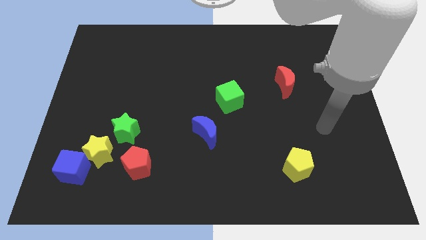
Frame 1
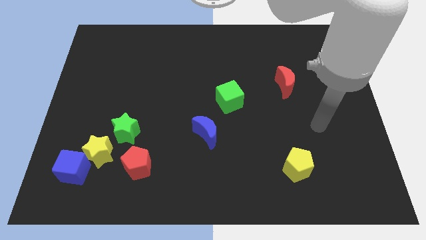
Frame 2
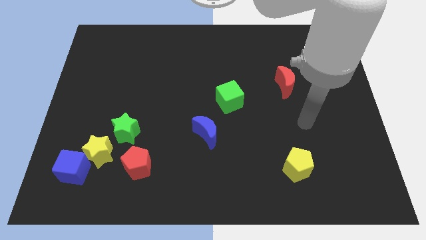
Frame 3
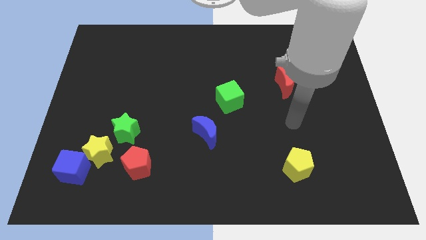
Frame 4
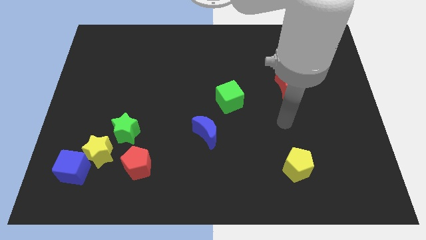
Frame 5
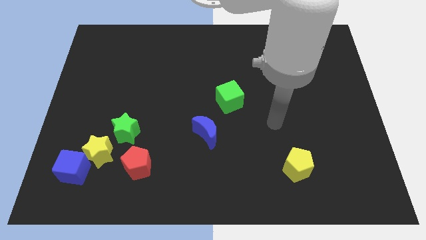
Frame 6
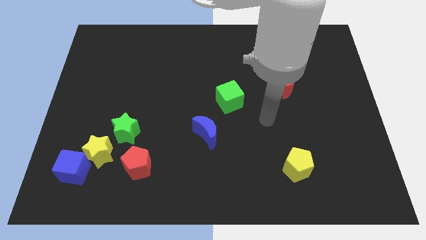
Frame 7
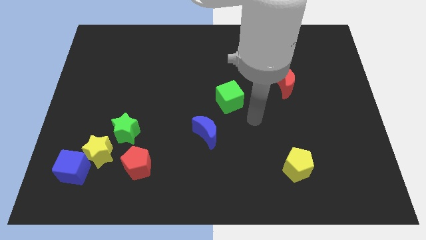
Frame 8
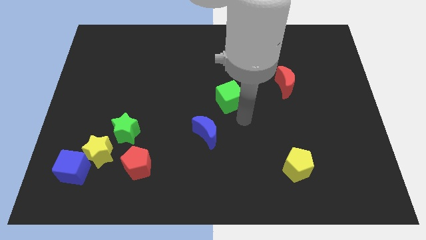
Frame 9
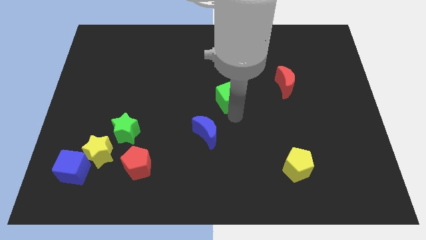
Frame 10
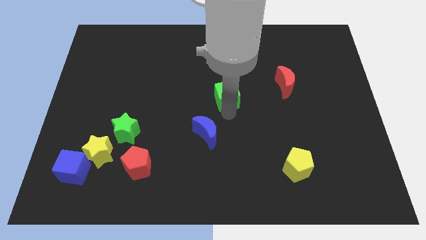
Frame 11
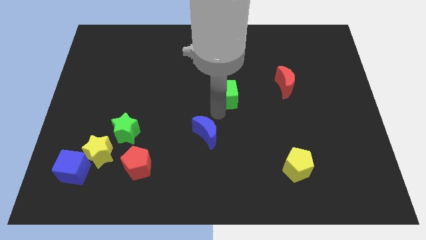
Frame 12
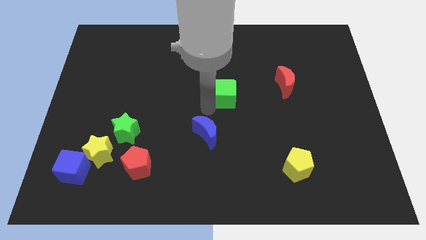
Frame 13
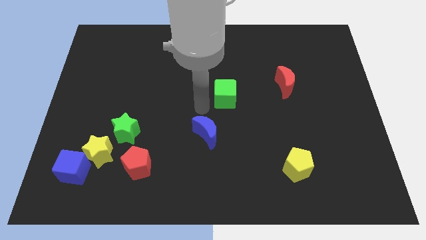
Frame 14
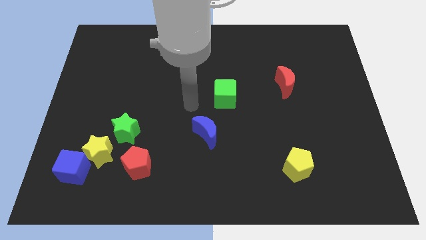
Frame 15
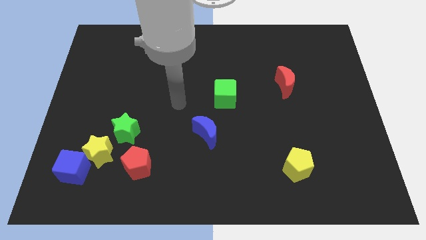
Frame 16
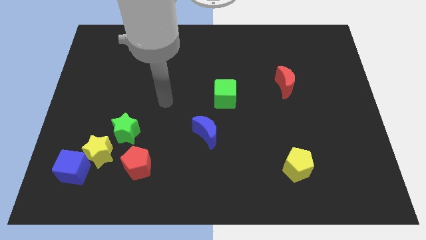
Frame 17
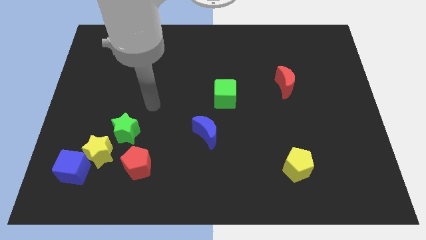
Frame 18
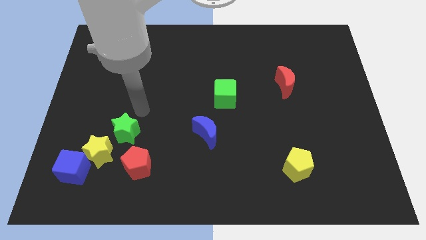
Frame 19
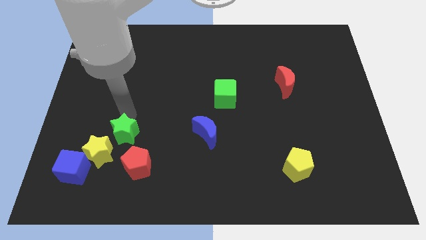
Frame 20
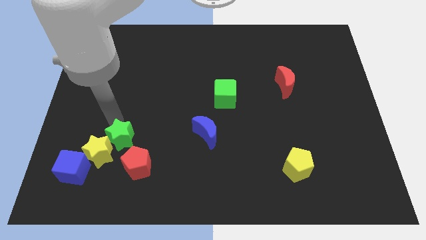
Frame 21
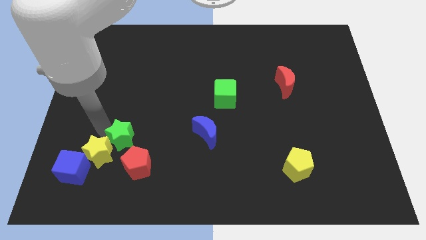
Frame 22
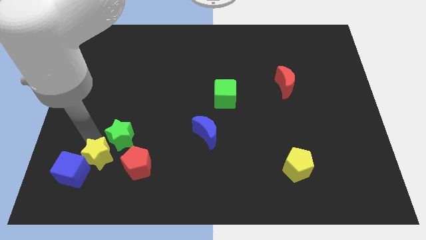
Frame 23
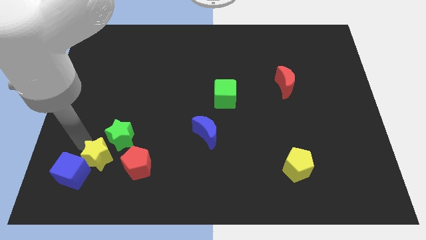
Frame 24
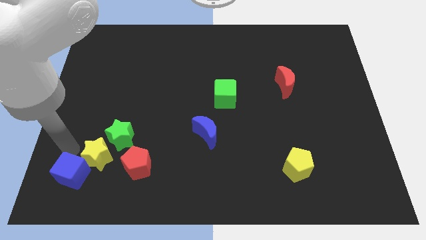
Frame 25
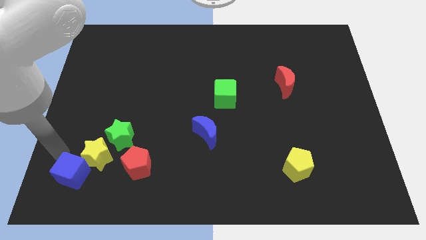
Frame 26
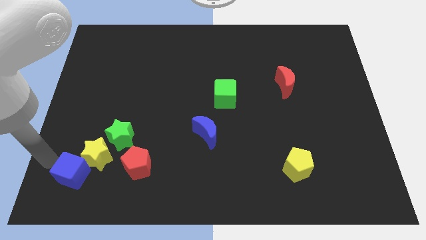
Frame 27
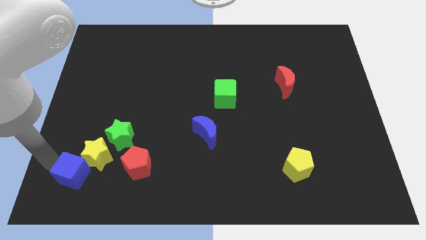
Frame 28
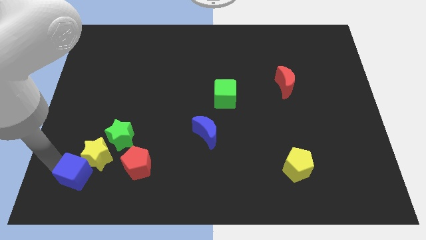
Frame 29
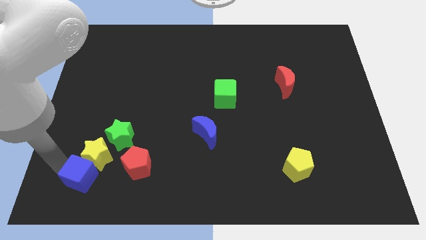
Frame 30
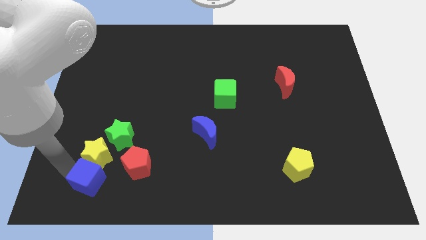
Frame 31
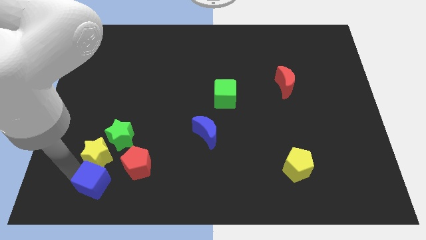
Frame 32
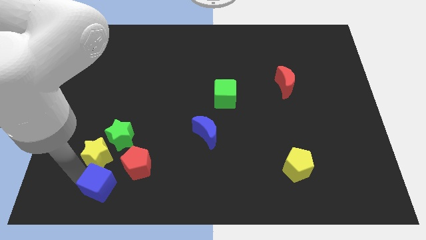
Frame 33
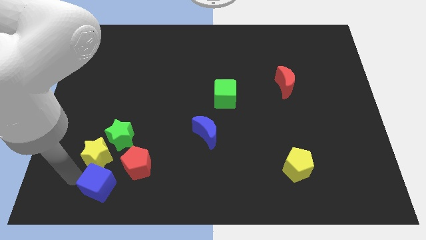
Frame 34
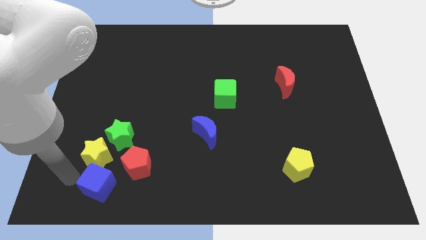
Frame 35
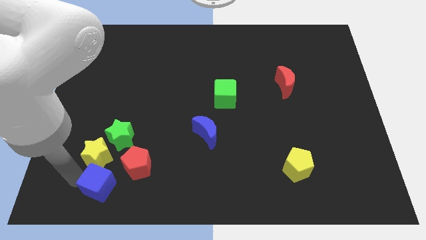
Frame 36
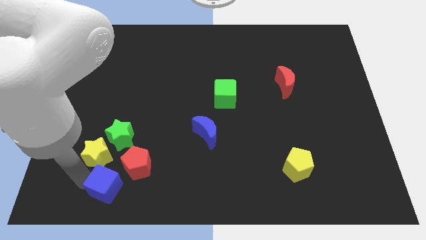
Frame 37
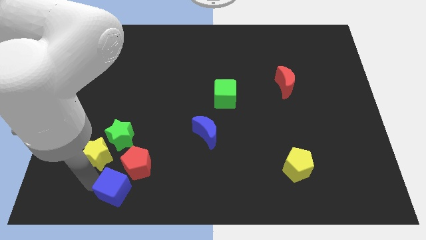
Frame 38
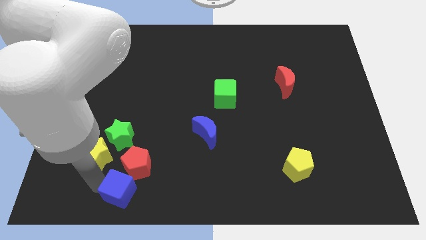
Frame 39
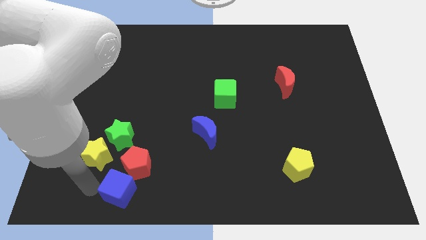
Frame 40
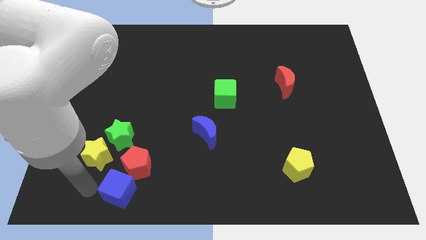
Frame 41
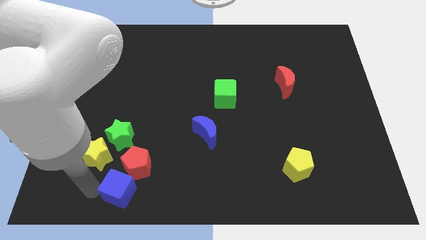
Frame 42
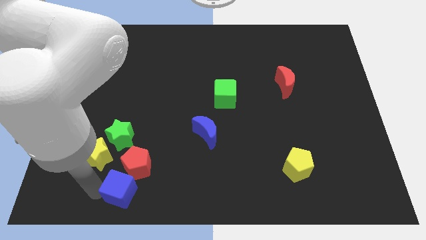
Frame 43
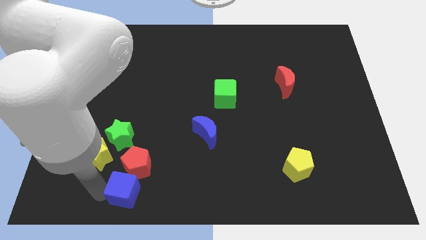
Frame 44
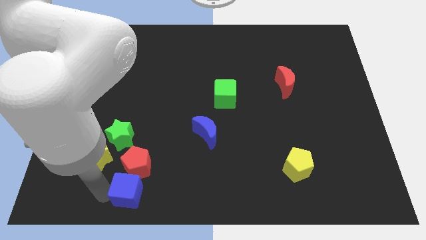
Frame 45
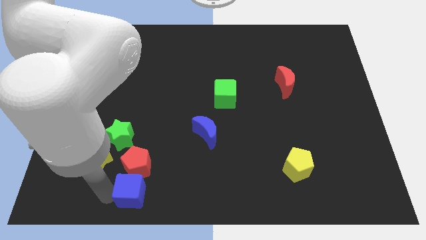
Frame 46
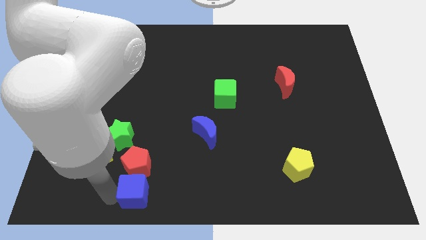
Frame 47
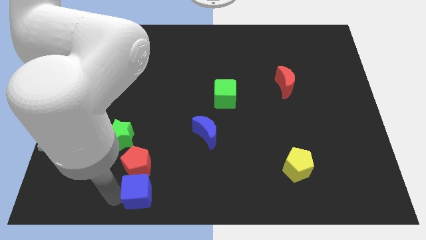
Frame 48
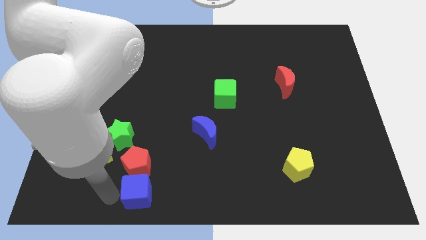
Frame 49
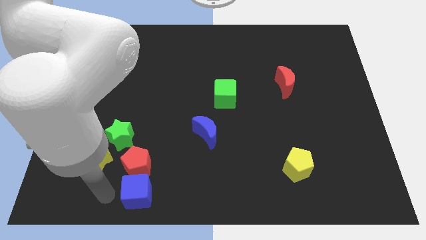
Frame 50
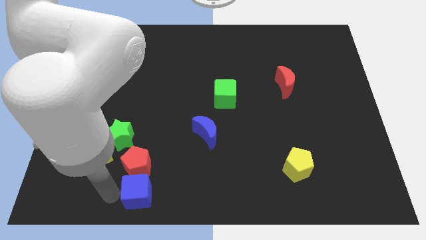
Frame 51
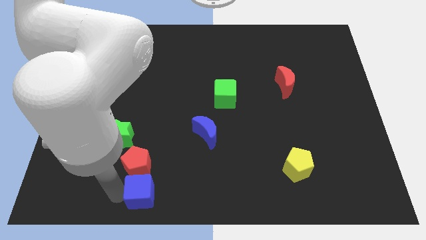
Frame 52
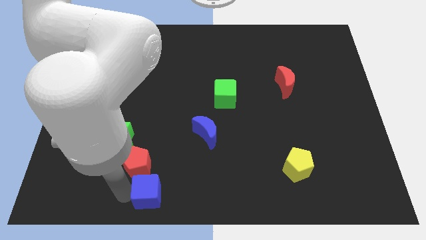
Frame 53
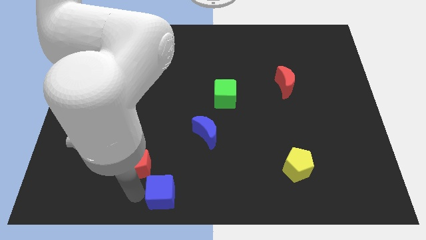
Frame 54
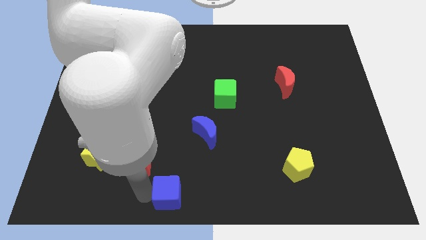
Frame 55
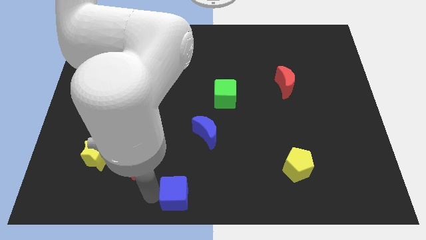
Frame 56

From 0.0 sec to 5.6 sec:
push the blue cube right

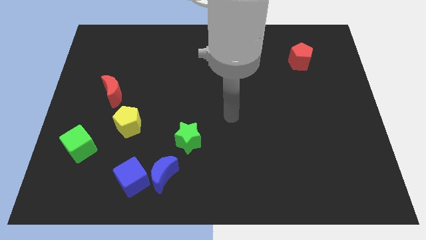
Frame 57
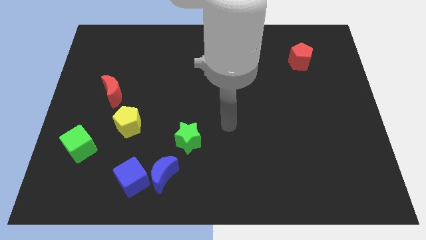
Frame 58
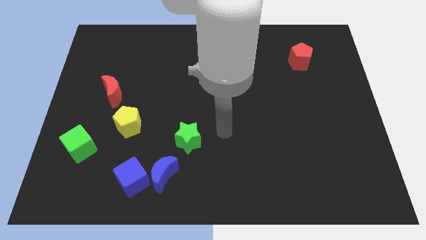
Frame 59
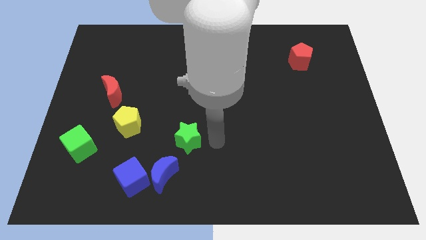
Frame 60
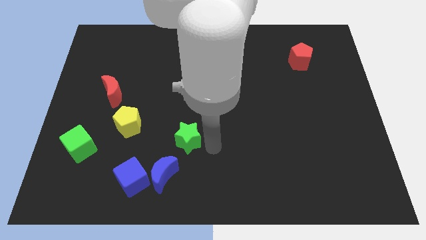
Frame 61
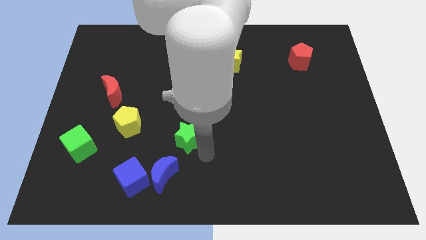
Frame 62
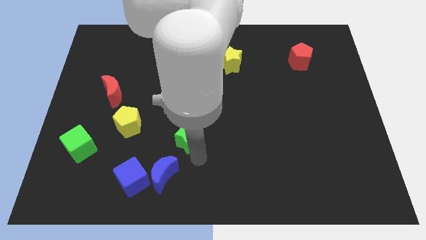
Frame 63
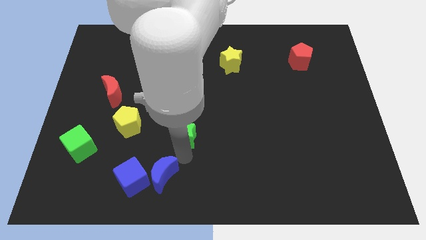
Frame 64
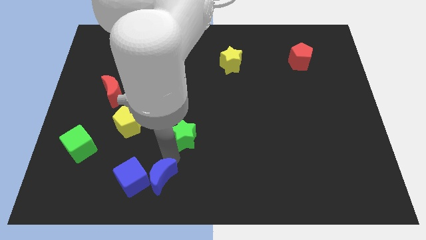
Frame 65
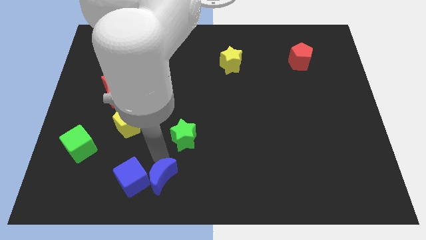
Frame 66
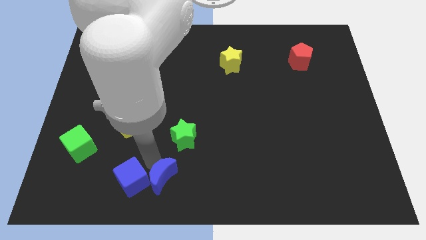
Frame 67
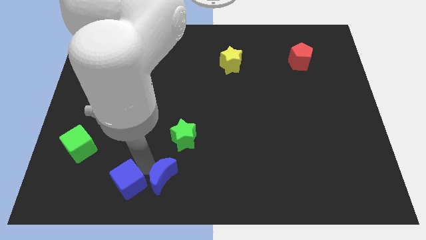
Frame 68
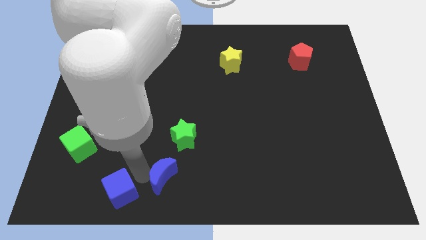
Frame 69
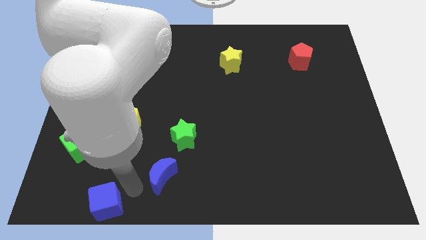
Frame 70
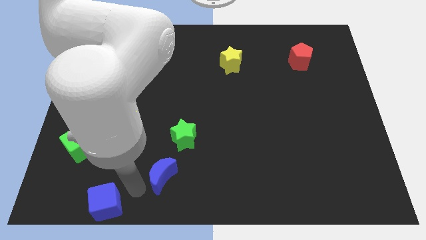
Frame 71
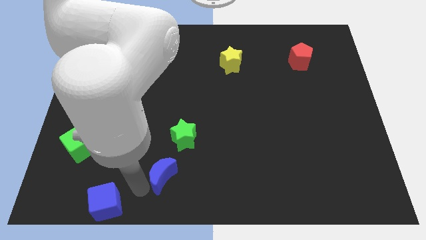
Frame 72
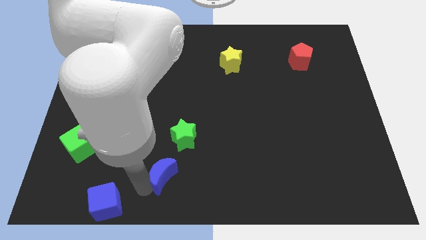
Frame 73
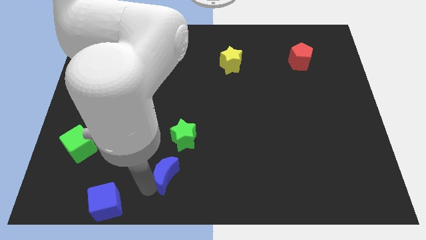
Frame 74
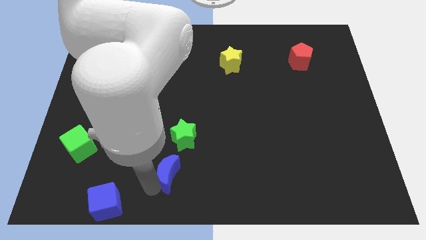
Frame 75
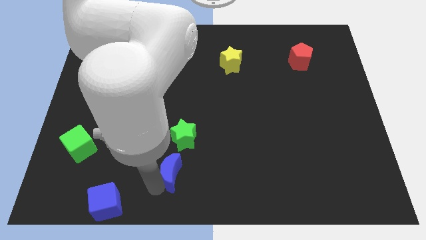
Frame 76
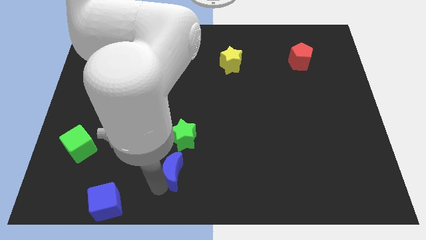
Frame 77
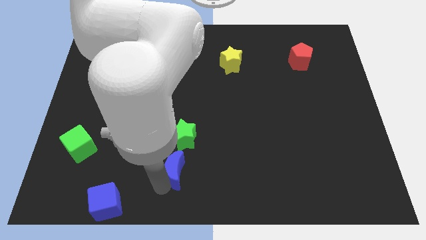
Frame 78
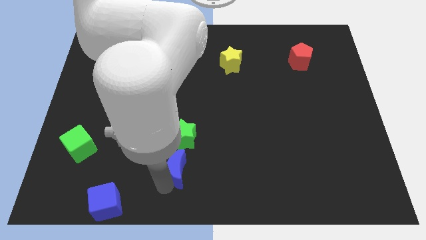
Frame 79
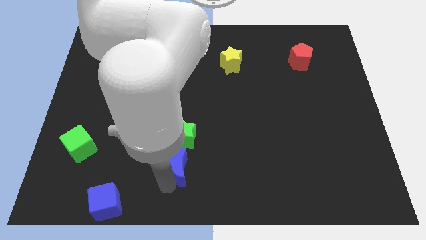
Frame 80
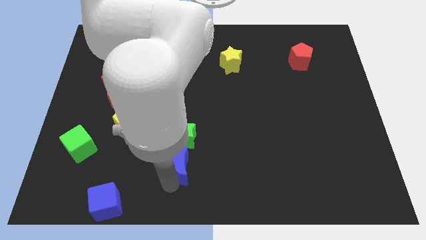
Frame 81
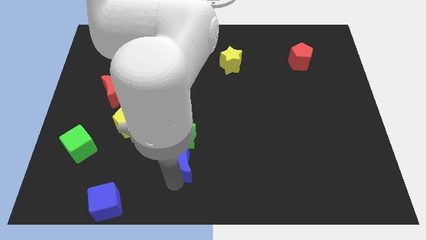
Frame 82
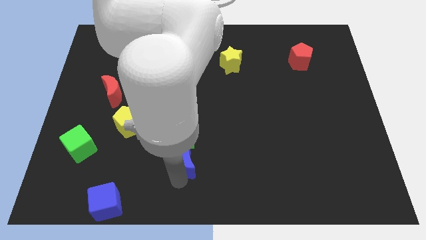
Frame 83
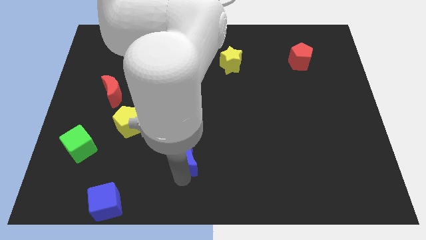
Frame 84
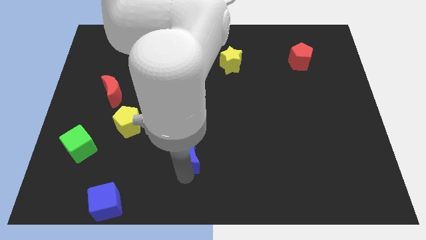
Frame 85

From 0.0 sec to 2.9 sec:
slightly push the blue moon diagonally upwards and to the right
